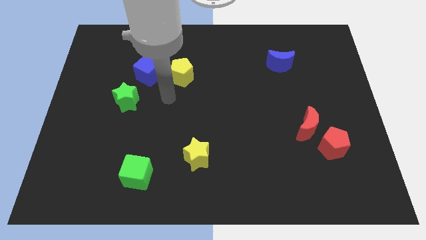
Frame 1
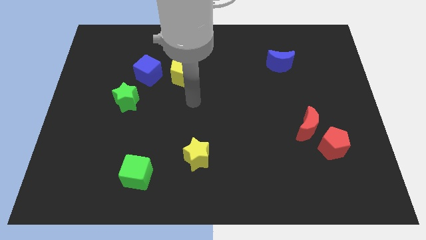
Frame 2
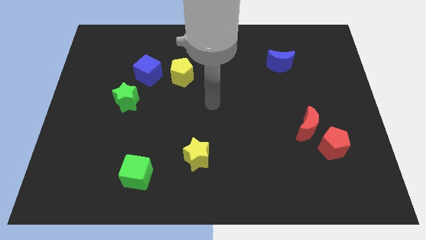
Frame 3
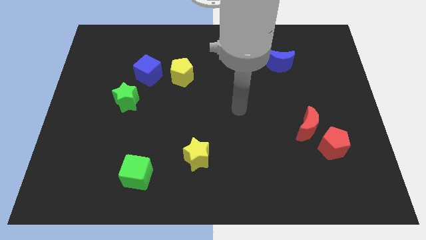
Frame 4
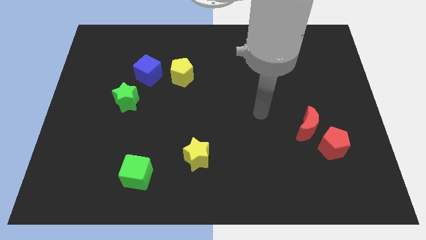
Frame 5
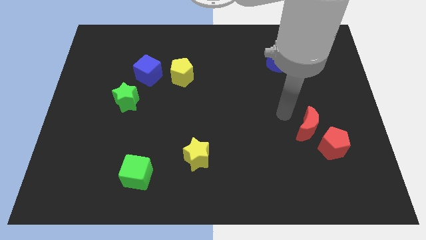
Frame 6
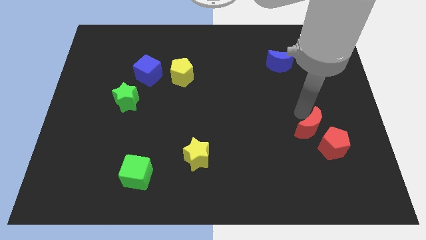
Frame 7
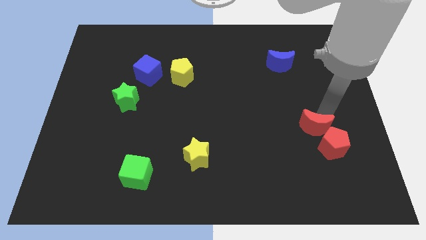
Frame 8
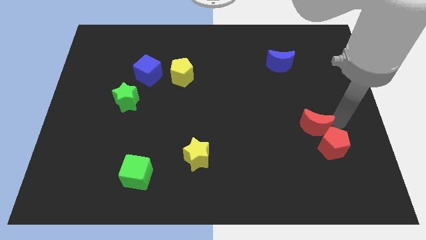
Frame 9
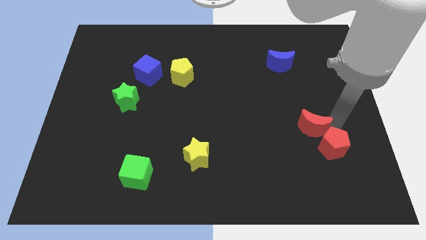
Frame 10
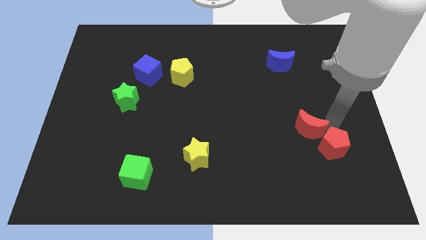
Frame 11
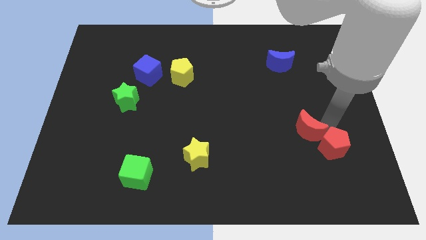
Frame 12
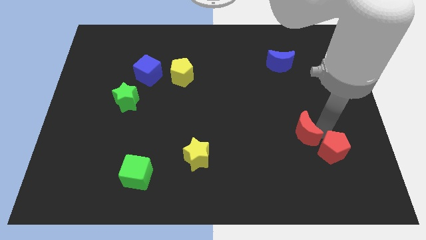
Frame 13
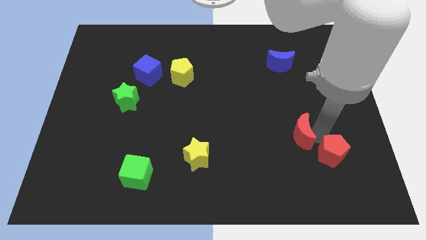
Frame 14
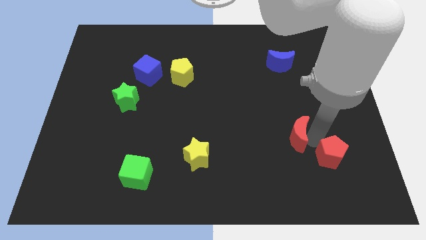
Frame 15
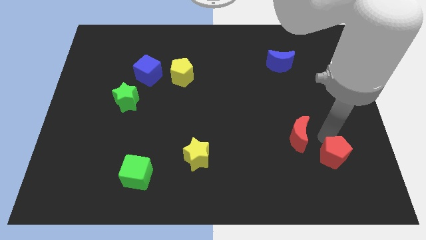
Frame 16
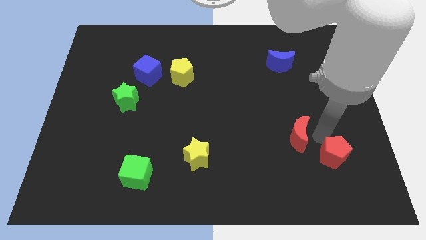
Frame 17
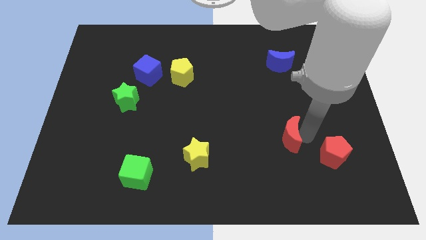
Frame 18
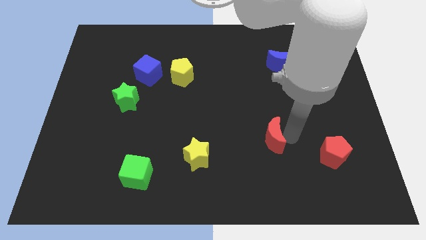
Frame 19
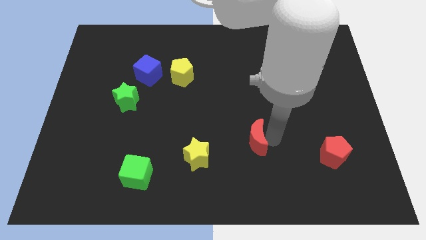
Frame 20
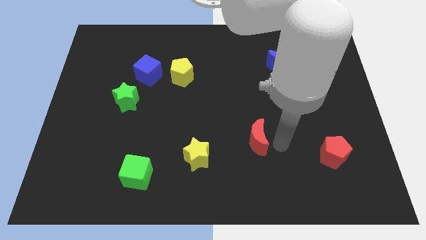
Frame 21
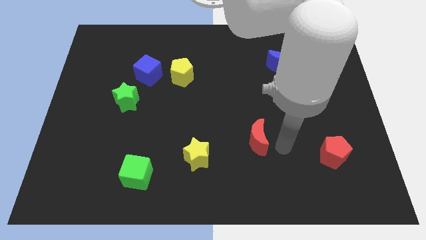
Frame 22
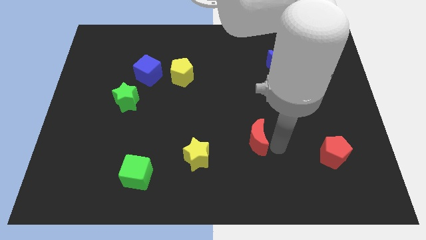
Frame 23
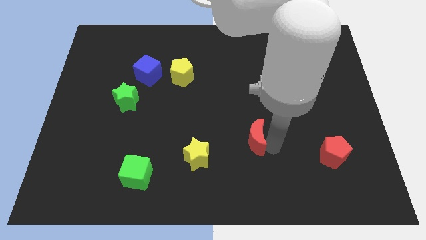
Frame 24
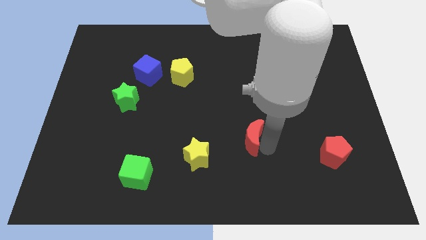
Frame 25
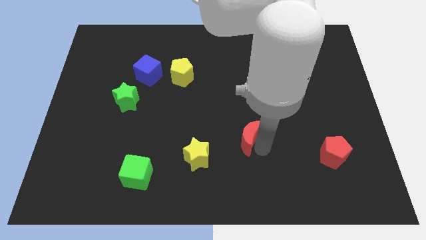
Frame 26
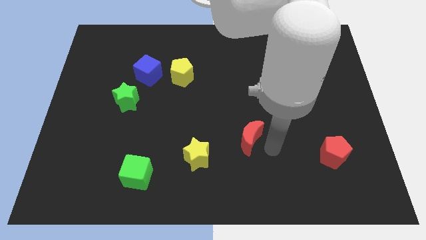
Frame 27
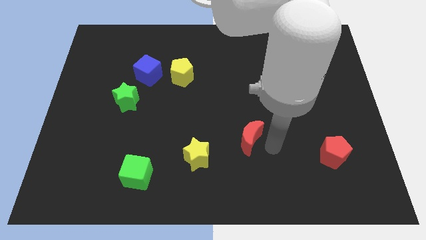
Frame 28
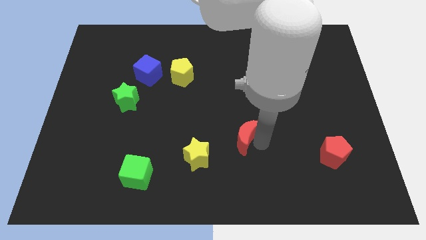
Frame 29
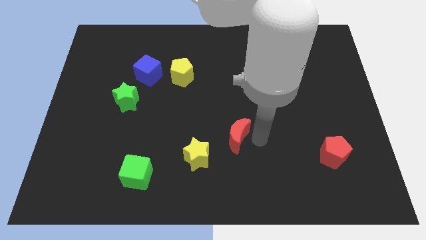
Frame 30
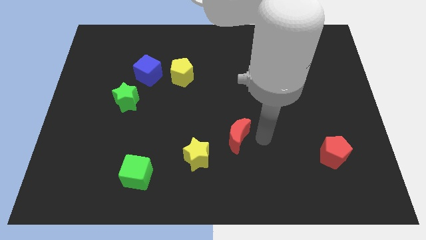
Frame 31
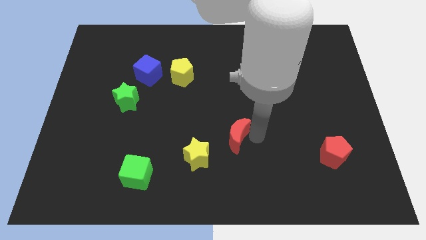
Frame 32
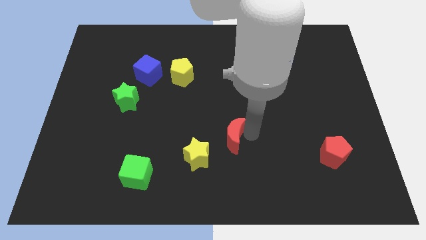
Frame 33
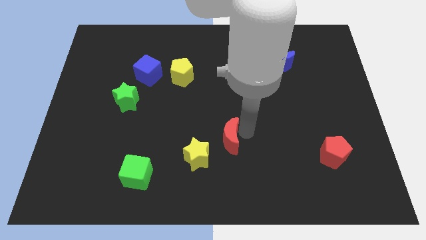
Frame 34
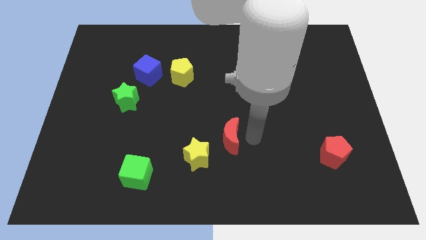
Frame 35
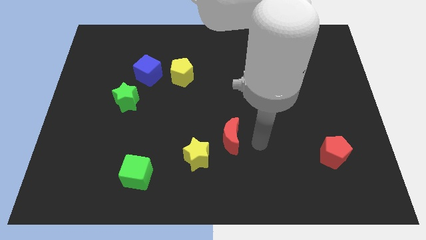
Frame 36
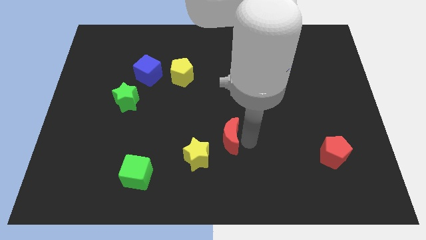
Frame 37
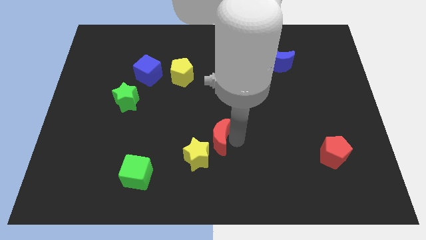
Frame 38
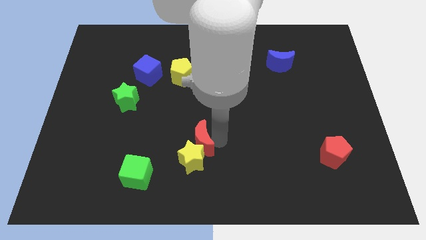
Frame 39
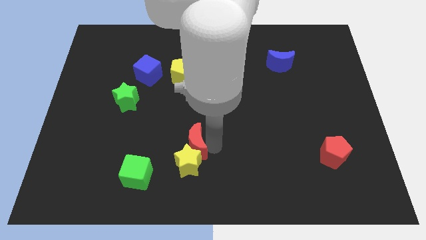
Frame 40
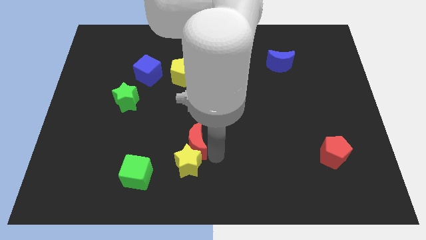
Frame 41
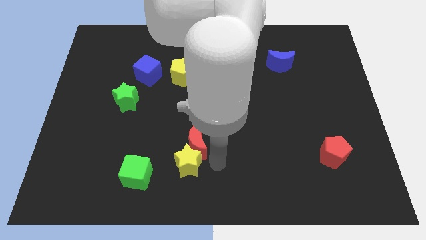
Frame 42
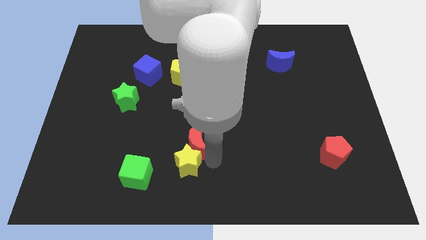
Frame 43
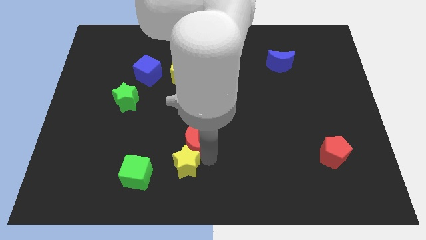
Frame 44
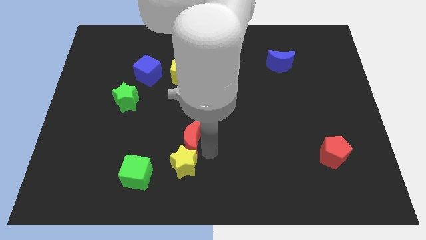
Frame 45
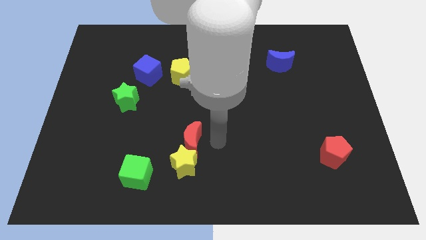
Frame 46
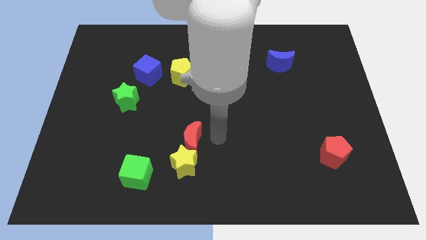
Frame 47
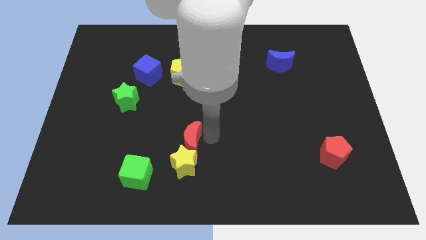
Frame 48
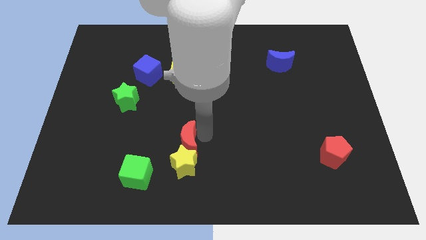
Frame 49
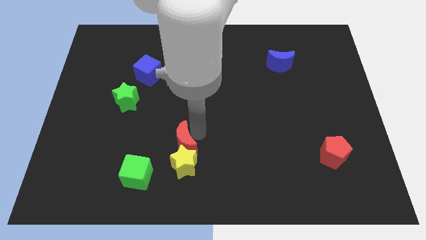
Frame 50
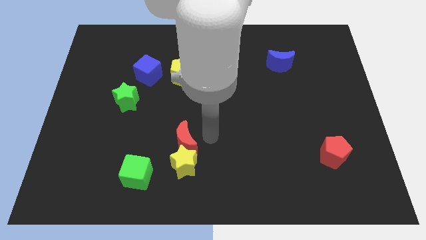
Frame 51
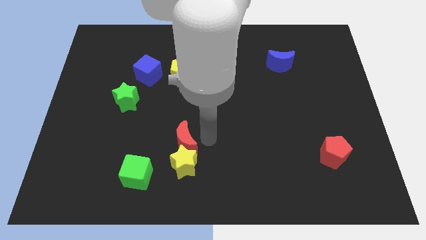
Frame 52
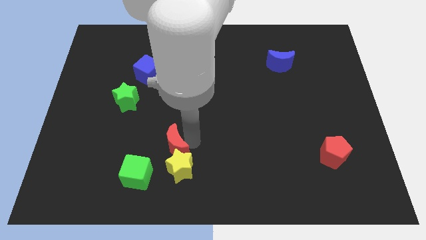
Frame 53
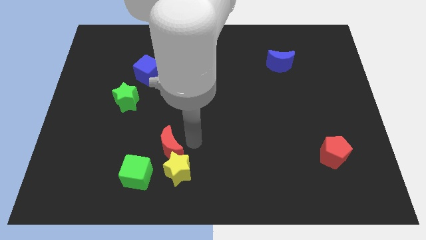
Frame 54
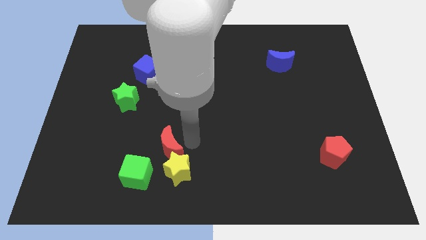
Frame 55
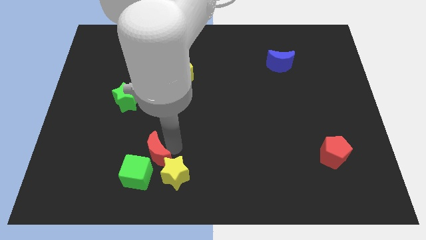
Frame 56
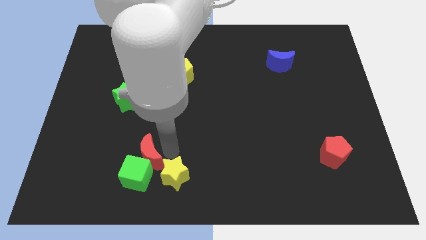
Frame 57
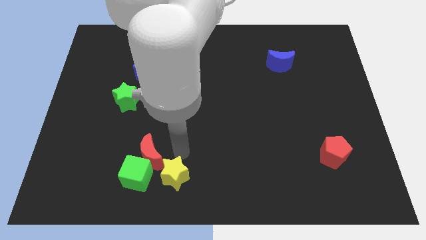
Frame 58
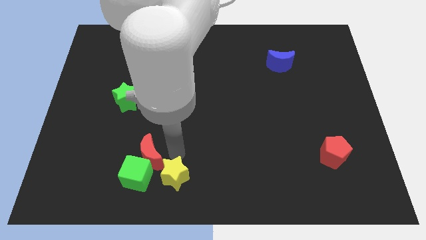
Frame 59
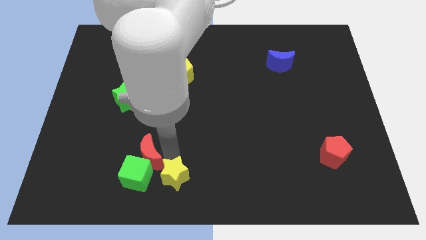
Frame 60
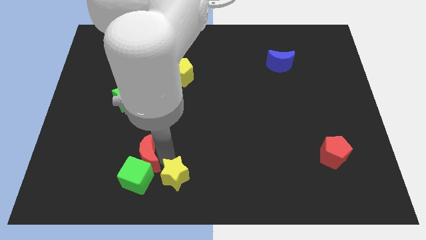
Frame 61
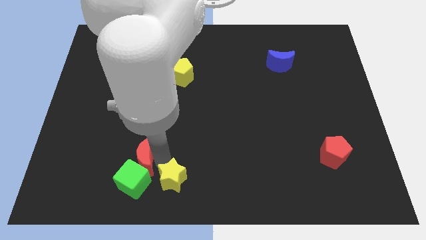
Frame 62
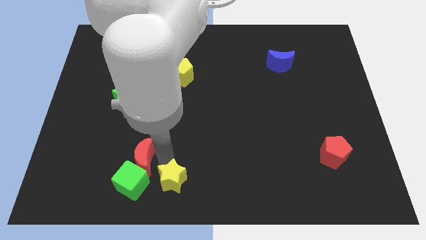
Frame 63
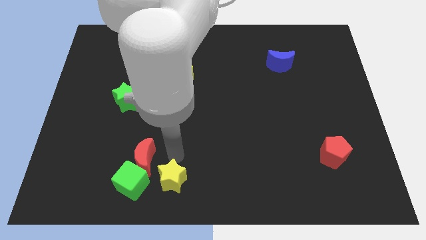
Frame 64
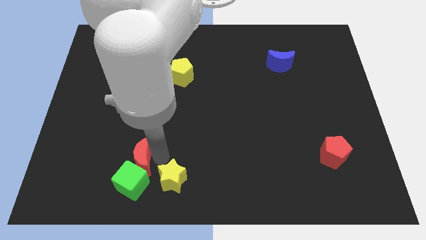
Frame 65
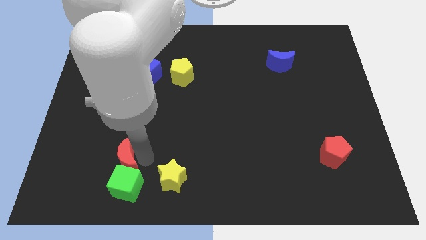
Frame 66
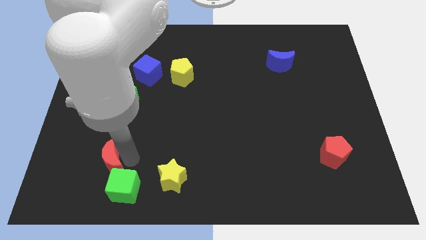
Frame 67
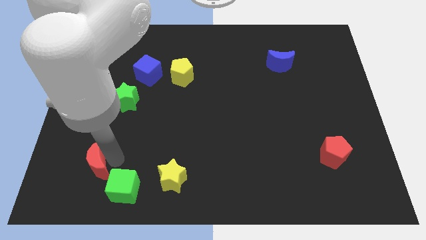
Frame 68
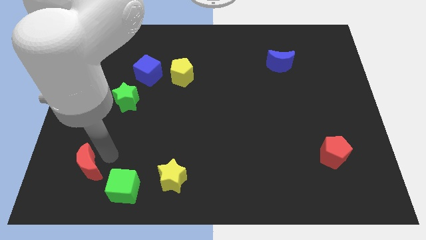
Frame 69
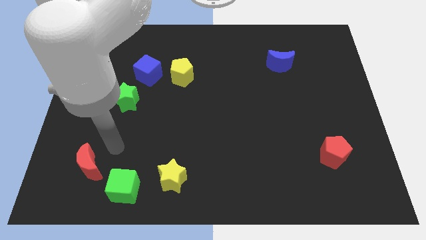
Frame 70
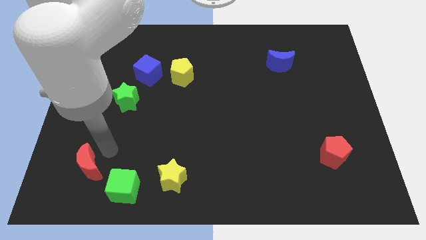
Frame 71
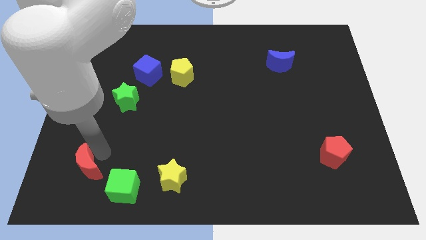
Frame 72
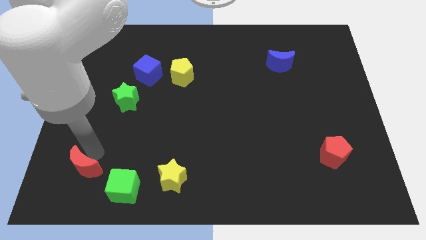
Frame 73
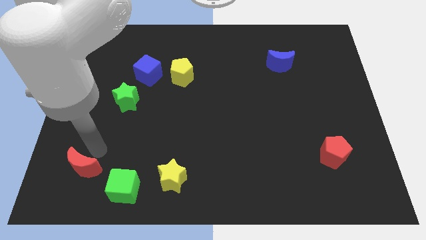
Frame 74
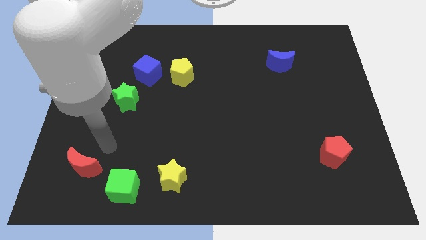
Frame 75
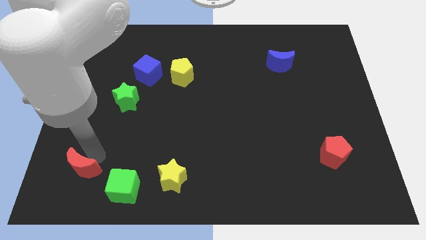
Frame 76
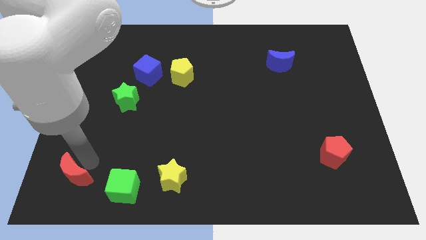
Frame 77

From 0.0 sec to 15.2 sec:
move the red moon to the bottom left

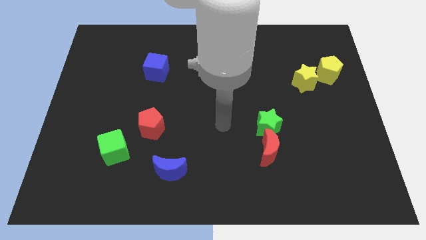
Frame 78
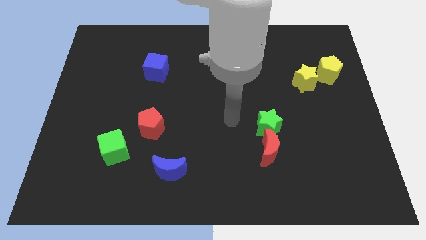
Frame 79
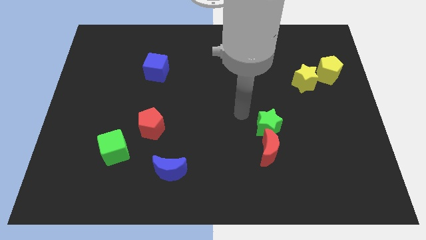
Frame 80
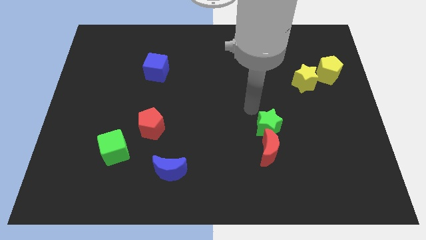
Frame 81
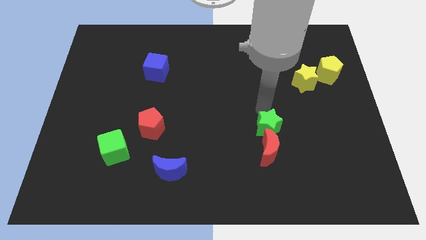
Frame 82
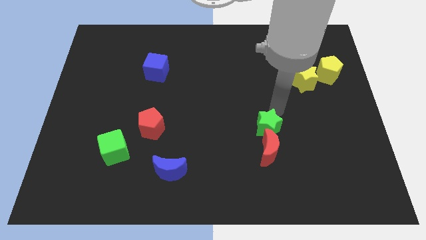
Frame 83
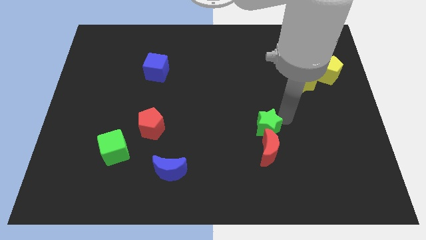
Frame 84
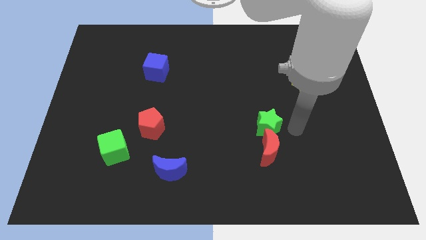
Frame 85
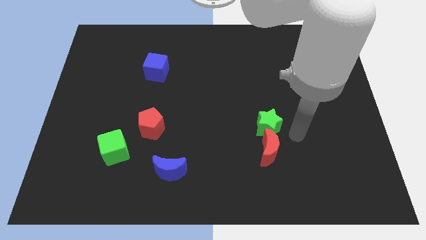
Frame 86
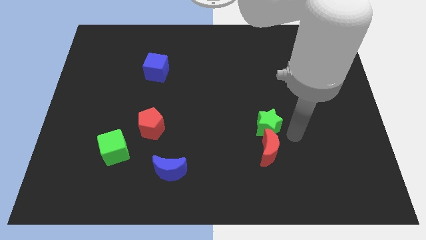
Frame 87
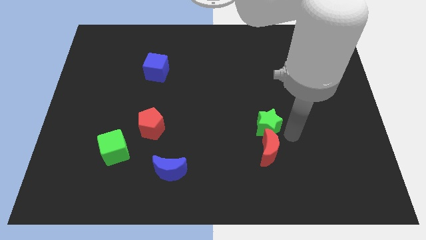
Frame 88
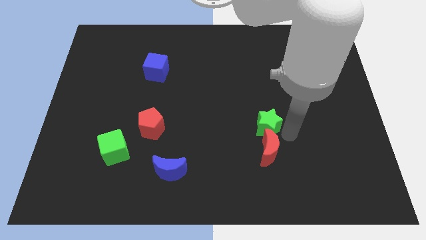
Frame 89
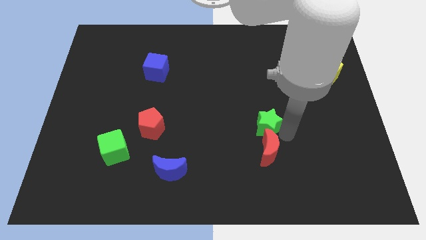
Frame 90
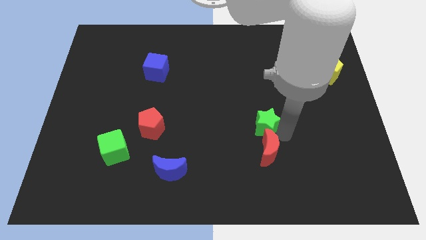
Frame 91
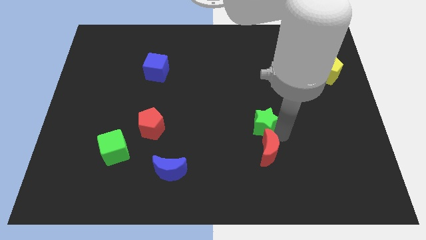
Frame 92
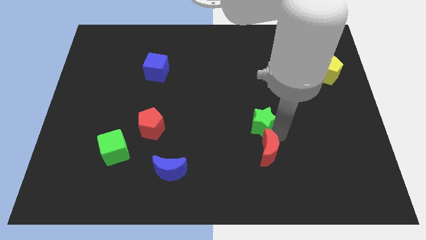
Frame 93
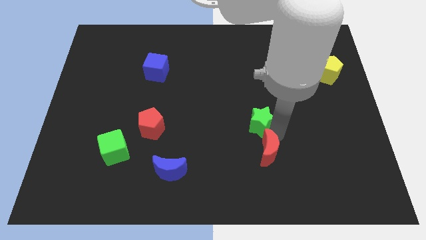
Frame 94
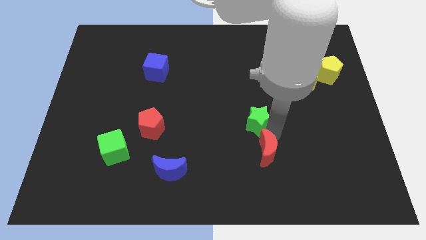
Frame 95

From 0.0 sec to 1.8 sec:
push the green star to the middle of the board
